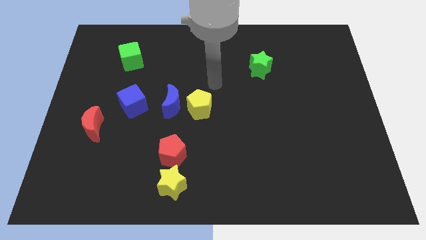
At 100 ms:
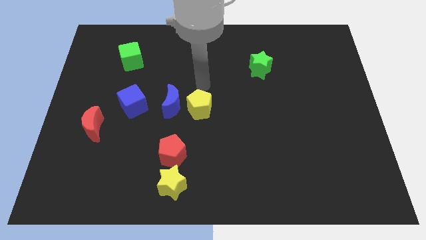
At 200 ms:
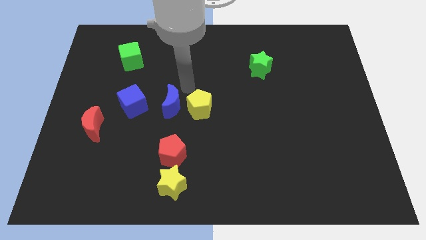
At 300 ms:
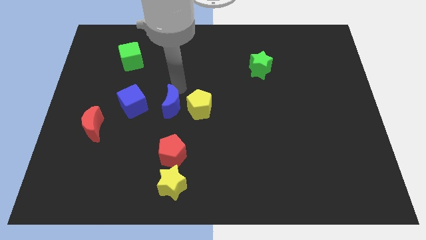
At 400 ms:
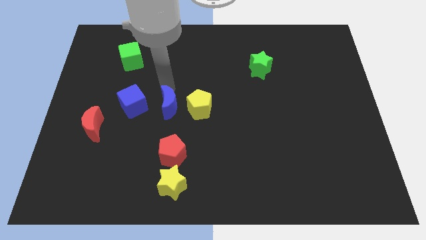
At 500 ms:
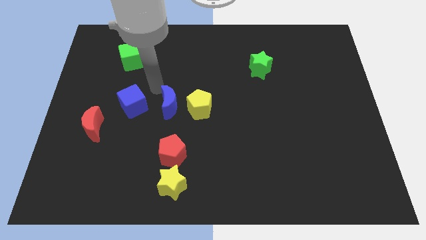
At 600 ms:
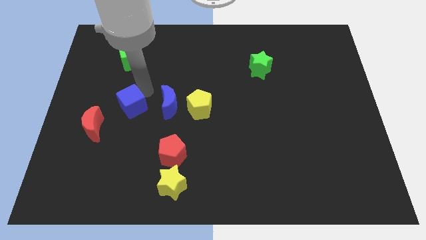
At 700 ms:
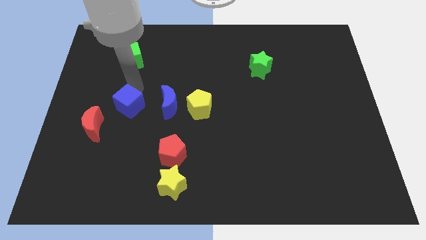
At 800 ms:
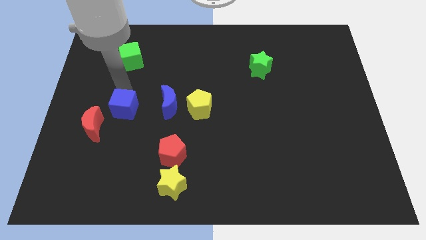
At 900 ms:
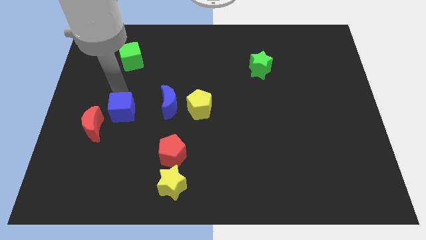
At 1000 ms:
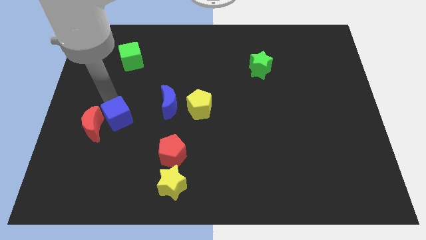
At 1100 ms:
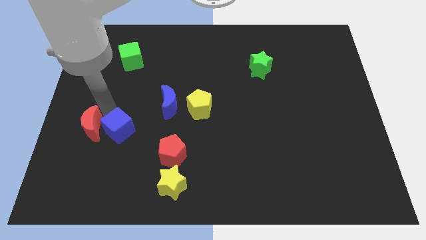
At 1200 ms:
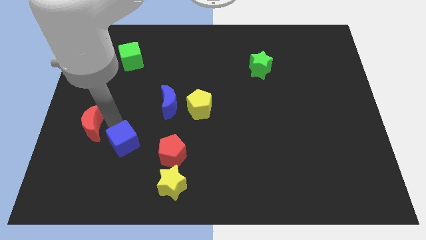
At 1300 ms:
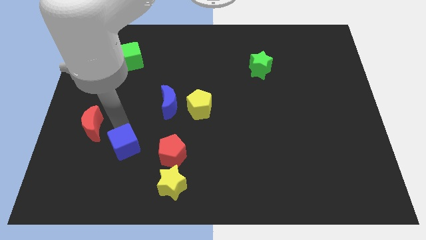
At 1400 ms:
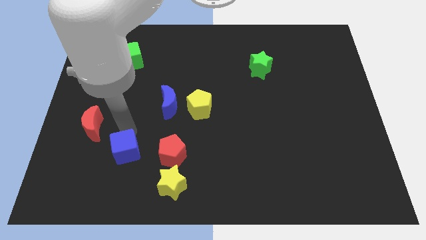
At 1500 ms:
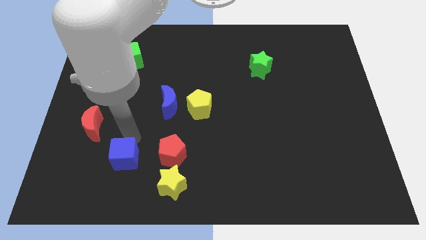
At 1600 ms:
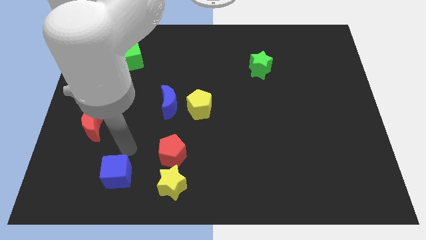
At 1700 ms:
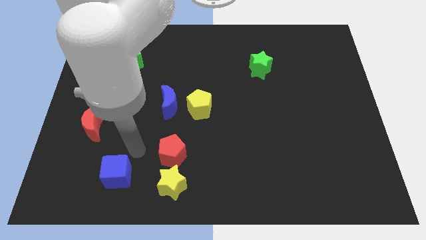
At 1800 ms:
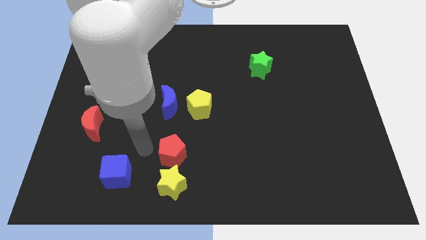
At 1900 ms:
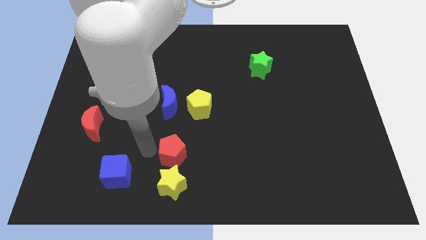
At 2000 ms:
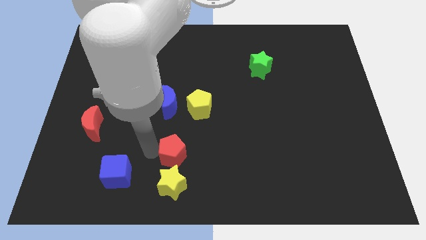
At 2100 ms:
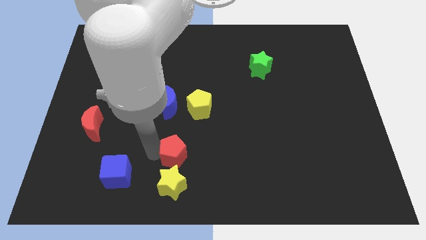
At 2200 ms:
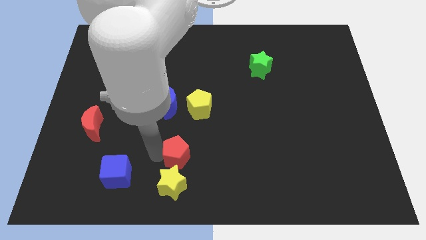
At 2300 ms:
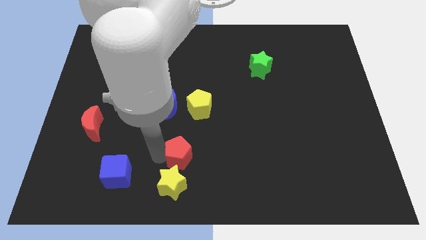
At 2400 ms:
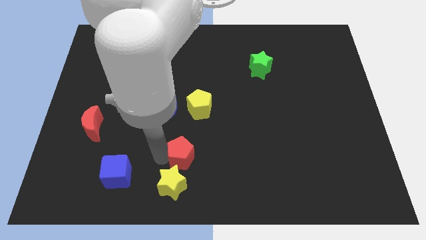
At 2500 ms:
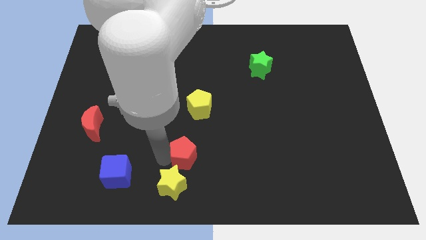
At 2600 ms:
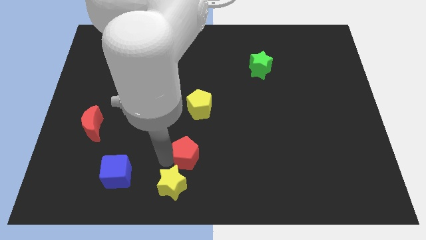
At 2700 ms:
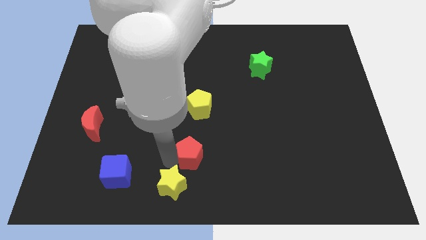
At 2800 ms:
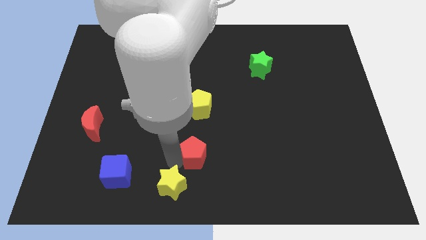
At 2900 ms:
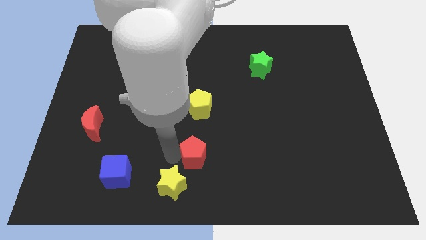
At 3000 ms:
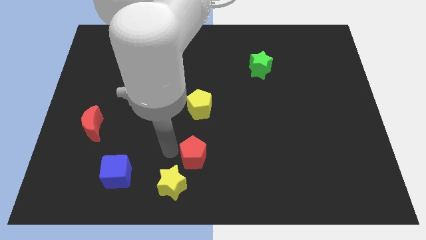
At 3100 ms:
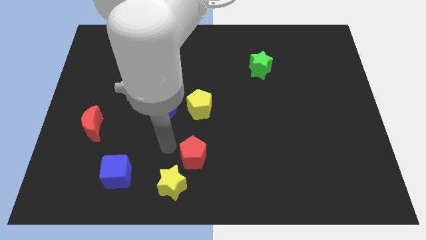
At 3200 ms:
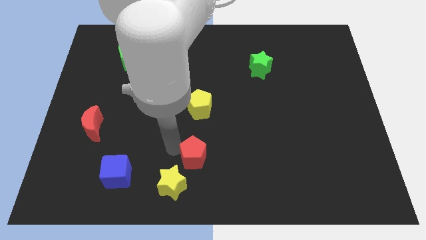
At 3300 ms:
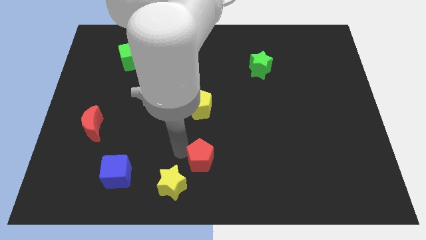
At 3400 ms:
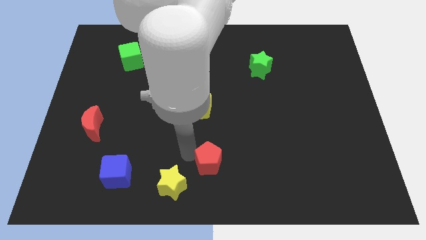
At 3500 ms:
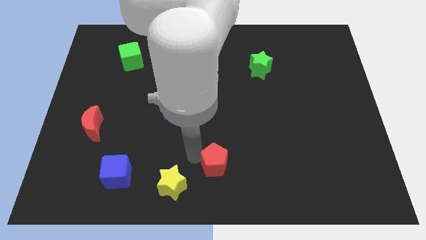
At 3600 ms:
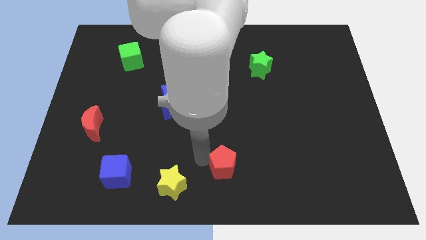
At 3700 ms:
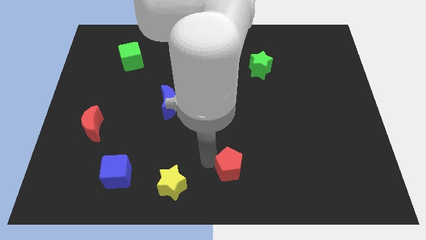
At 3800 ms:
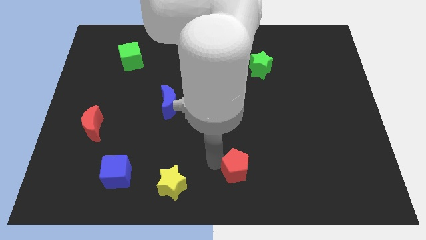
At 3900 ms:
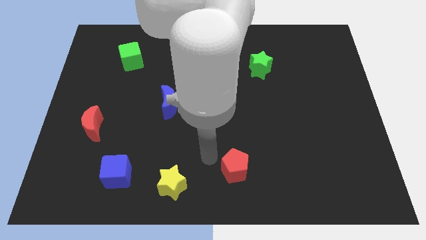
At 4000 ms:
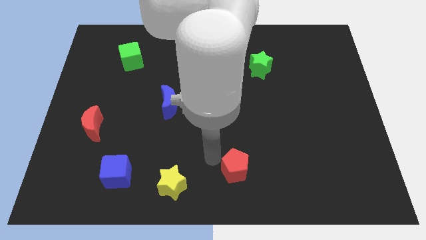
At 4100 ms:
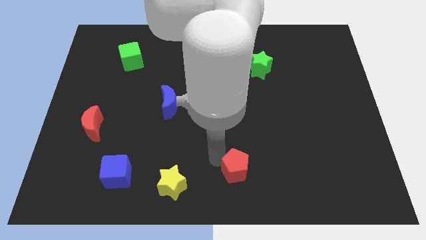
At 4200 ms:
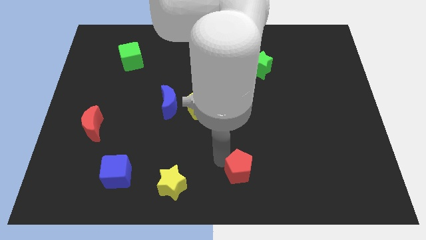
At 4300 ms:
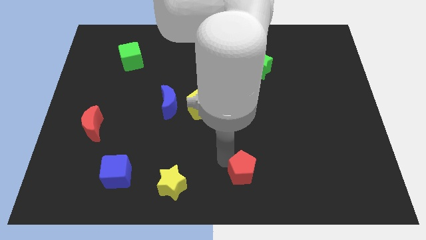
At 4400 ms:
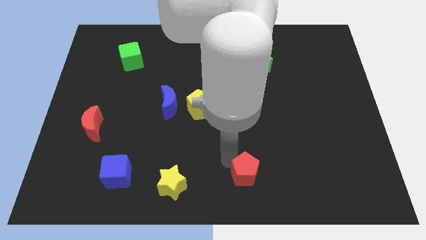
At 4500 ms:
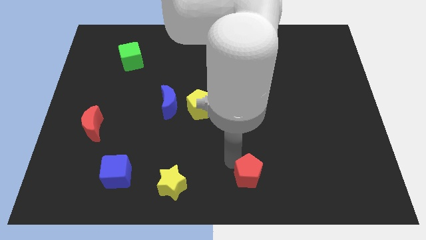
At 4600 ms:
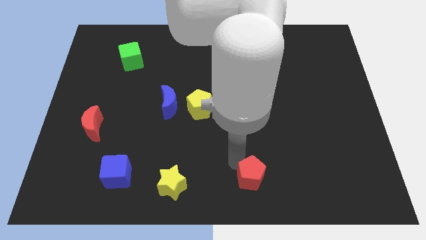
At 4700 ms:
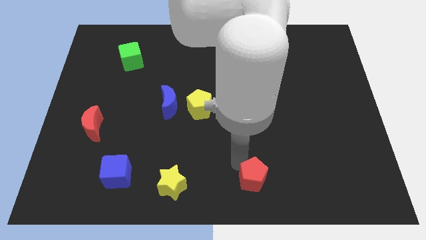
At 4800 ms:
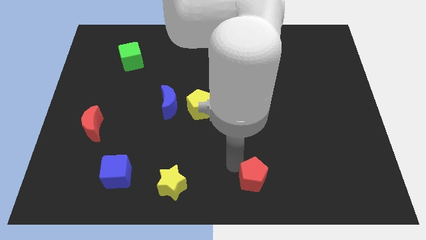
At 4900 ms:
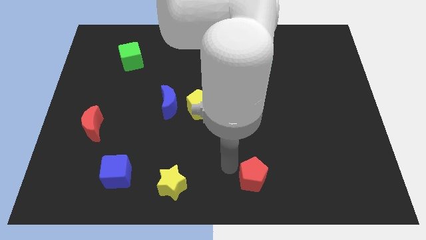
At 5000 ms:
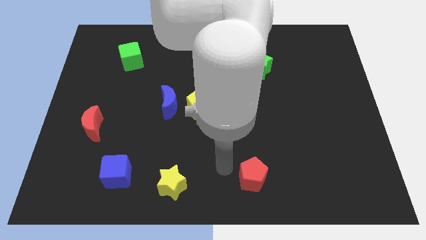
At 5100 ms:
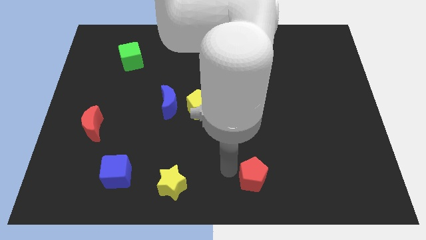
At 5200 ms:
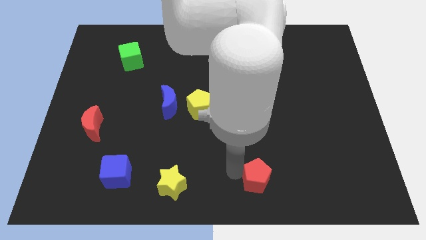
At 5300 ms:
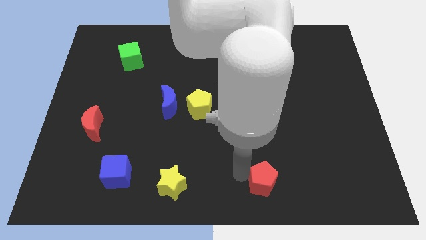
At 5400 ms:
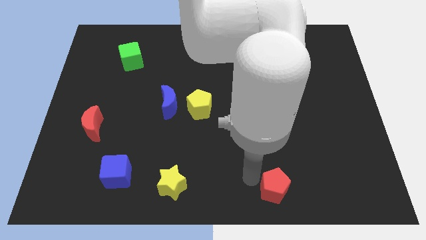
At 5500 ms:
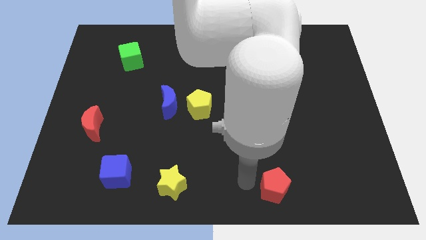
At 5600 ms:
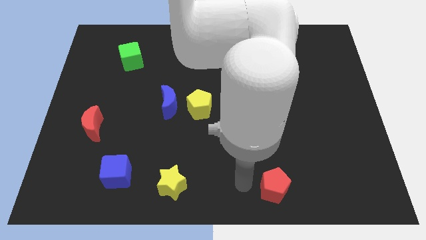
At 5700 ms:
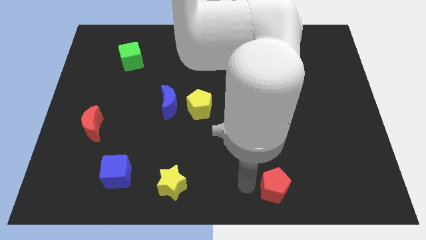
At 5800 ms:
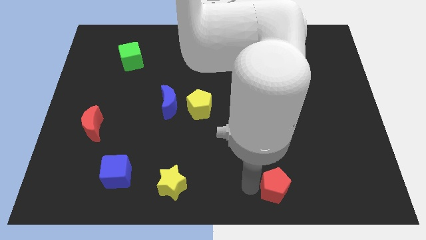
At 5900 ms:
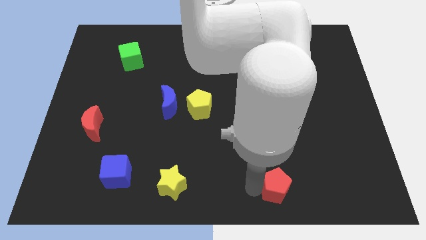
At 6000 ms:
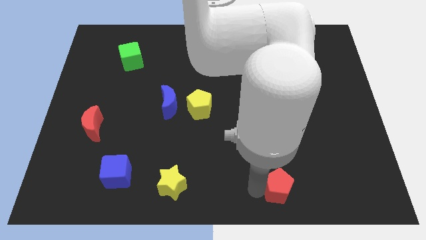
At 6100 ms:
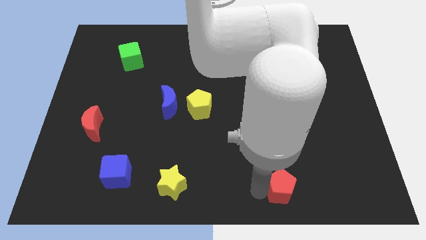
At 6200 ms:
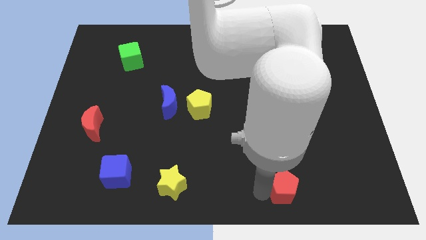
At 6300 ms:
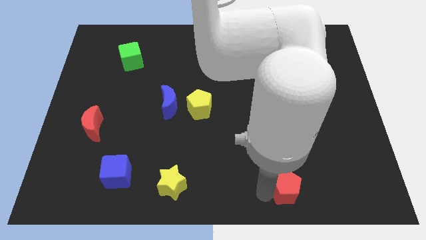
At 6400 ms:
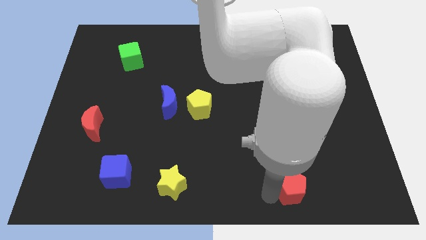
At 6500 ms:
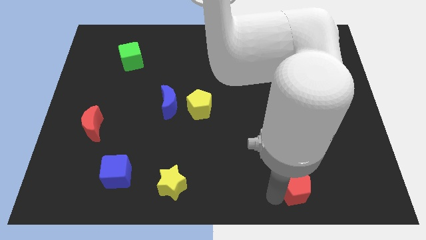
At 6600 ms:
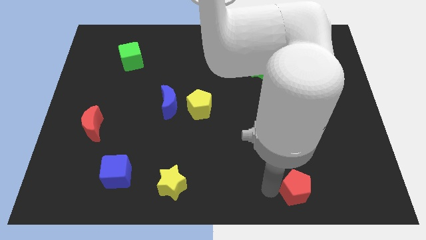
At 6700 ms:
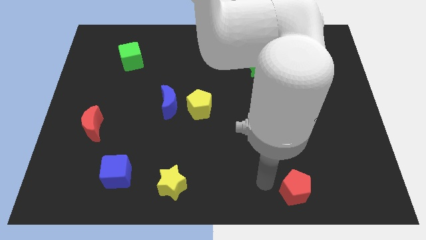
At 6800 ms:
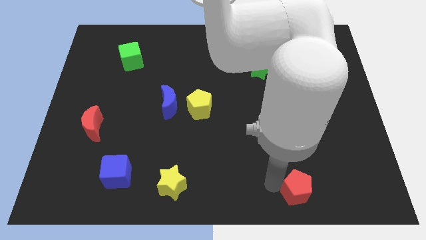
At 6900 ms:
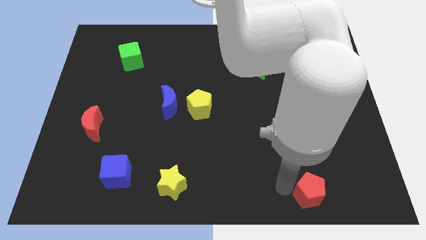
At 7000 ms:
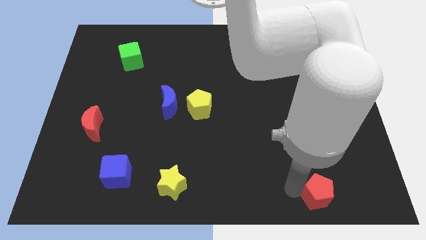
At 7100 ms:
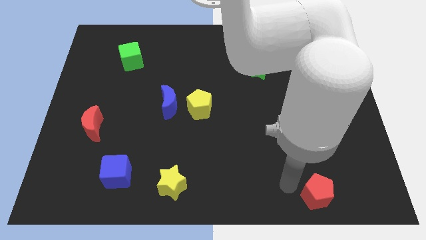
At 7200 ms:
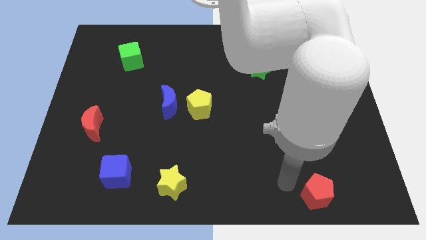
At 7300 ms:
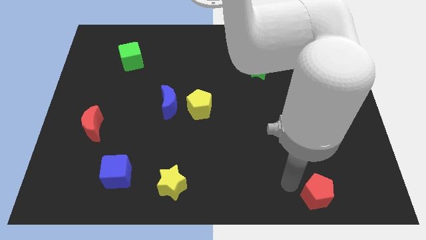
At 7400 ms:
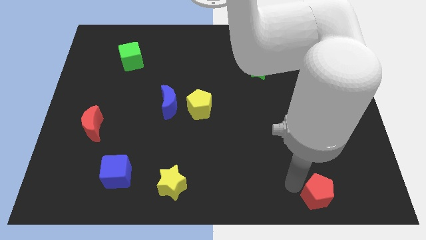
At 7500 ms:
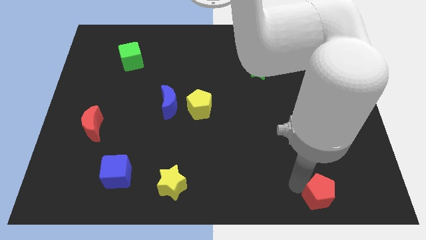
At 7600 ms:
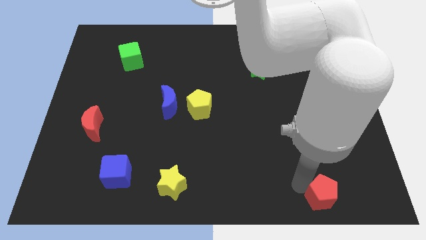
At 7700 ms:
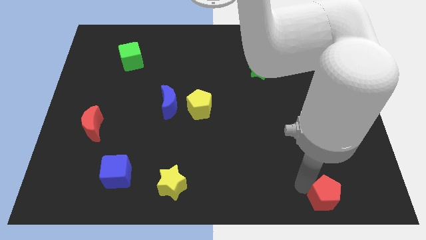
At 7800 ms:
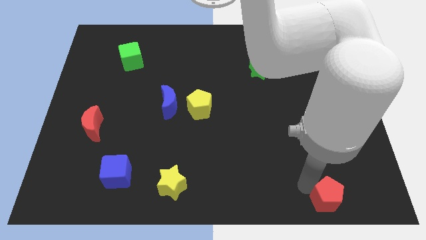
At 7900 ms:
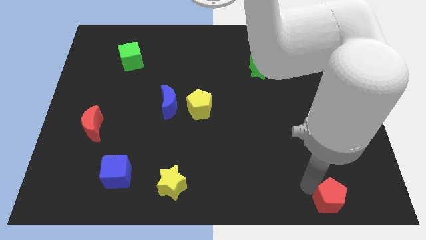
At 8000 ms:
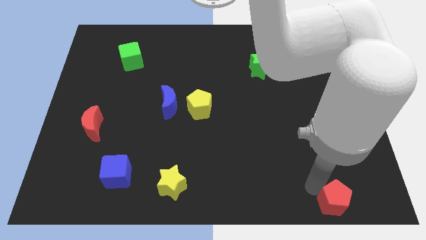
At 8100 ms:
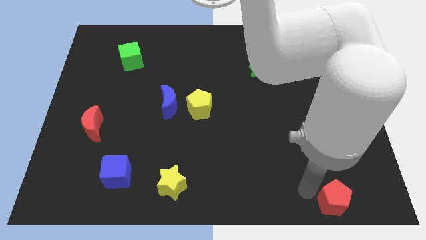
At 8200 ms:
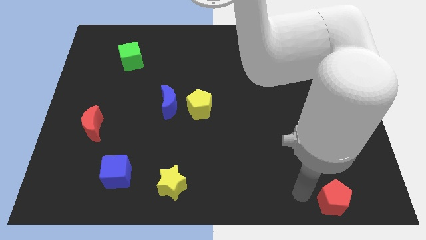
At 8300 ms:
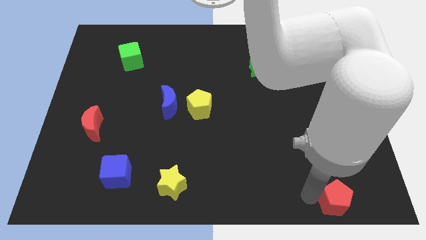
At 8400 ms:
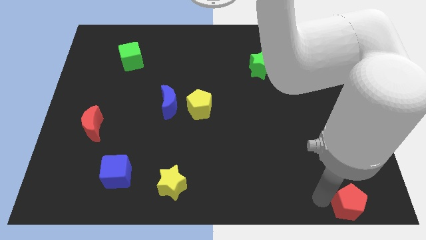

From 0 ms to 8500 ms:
push the red pentagon to the bottom right of the board
